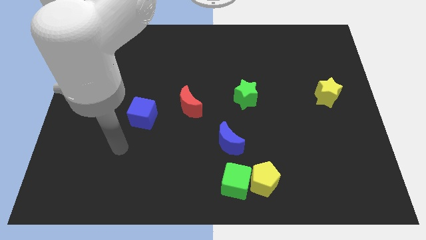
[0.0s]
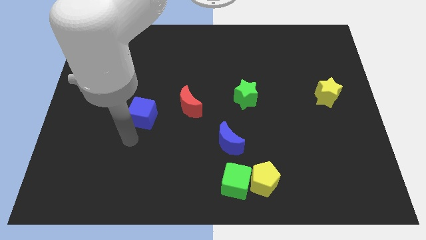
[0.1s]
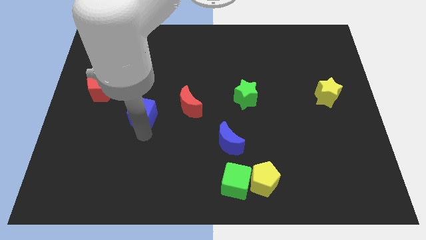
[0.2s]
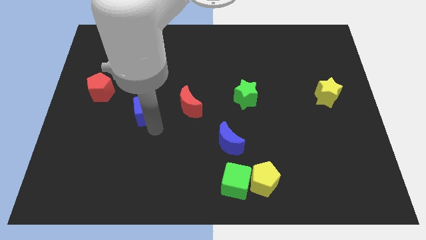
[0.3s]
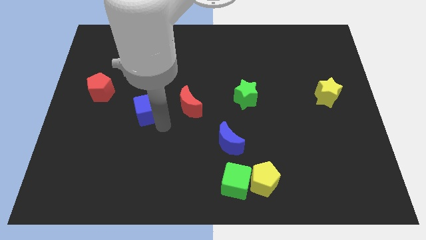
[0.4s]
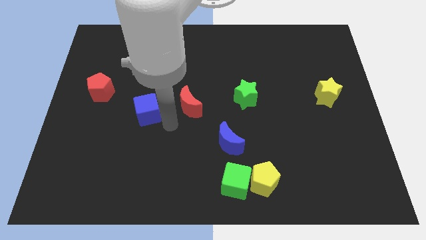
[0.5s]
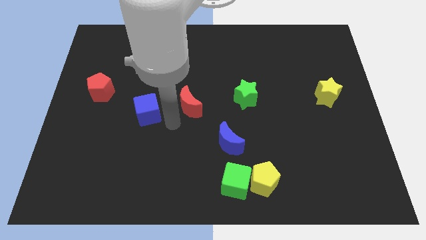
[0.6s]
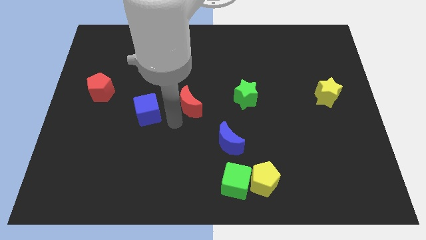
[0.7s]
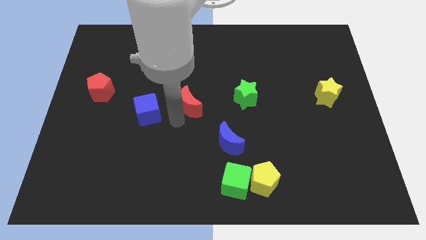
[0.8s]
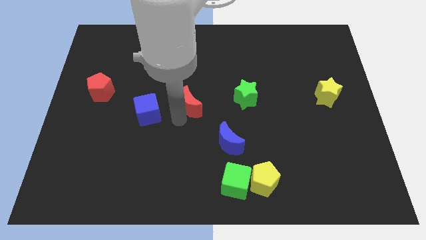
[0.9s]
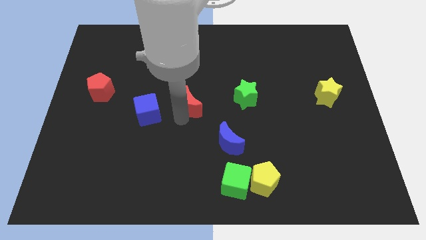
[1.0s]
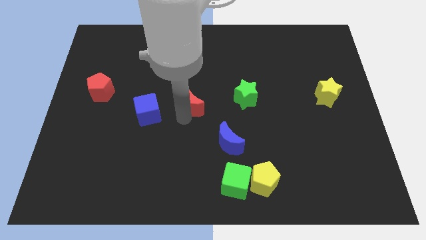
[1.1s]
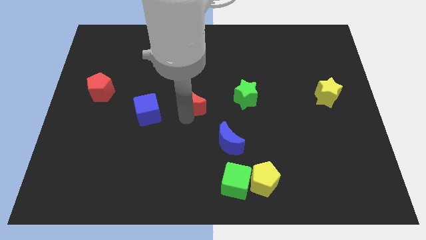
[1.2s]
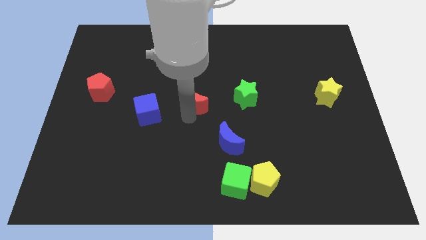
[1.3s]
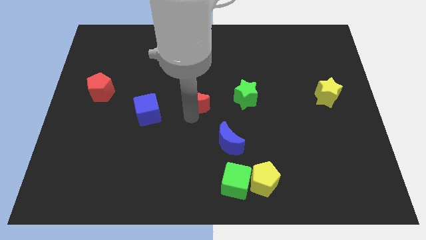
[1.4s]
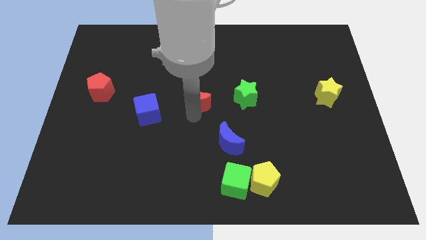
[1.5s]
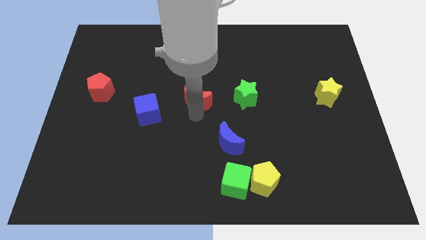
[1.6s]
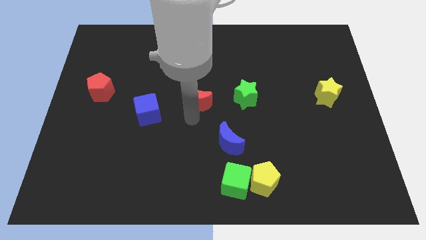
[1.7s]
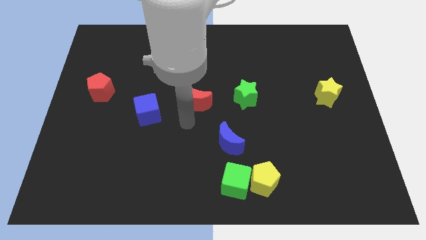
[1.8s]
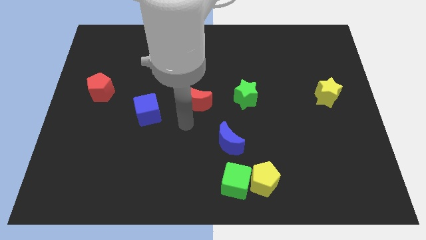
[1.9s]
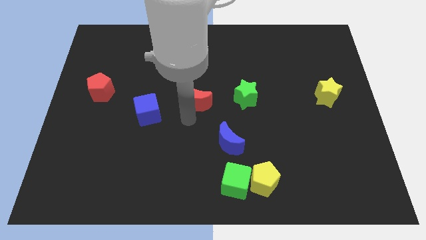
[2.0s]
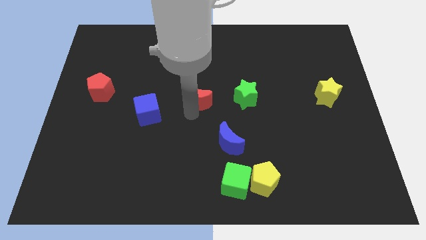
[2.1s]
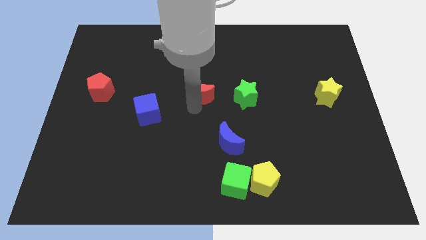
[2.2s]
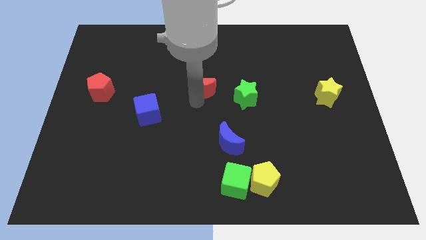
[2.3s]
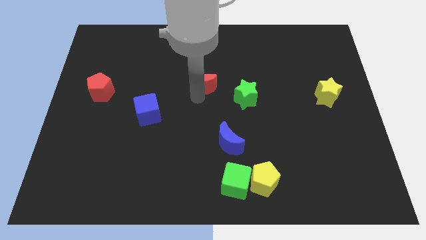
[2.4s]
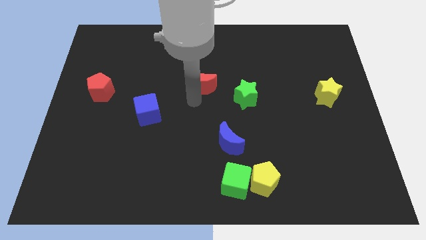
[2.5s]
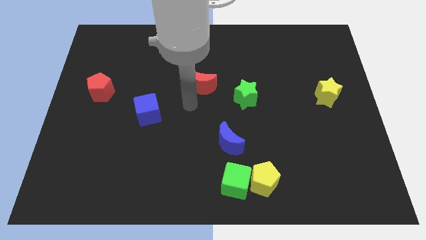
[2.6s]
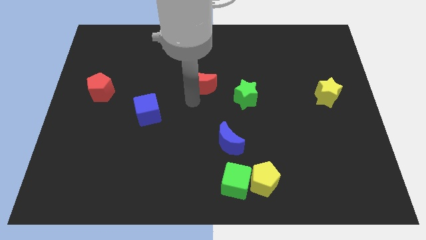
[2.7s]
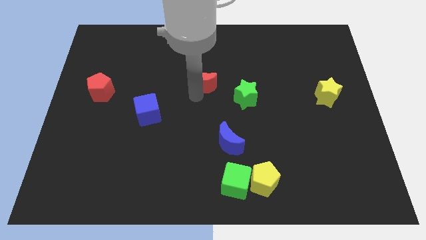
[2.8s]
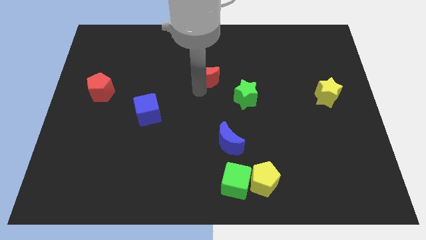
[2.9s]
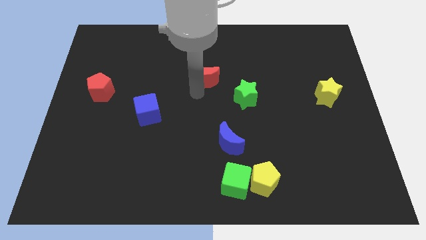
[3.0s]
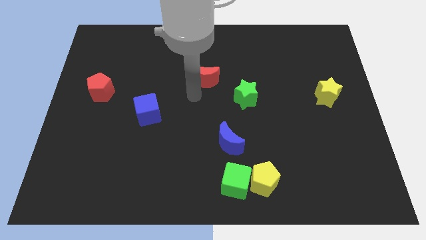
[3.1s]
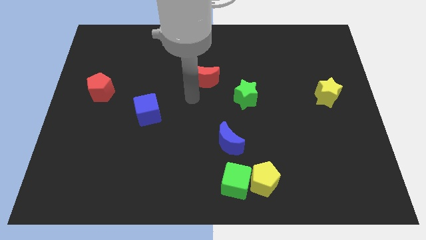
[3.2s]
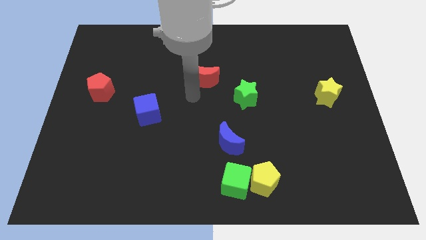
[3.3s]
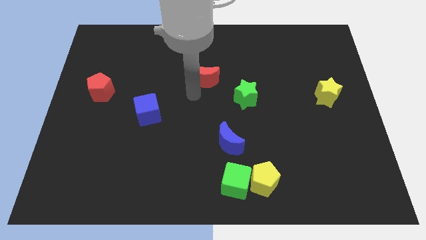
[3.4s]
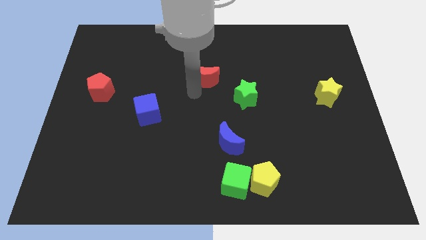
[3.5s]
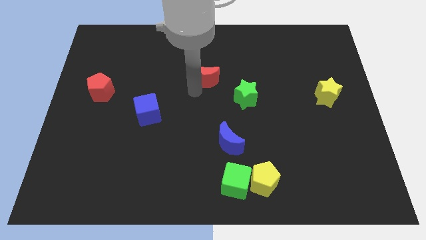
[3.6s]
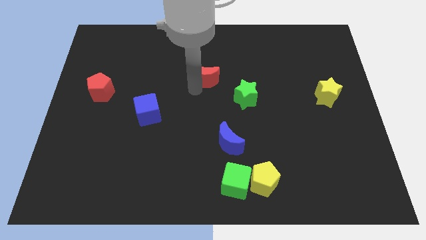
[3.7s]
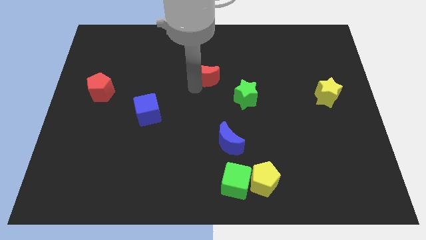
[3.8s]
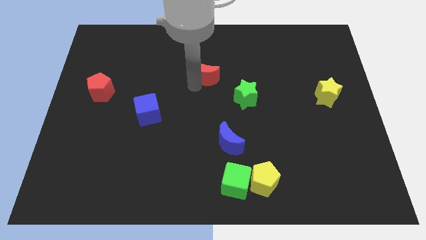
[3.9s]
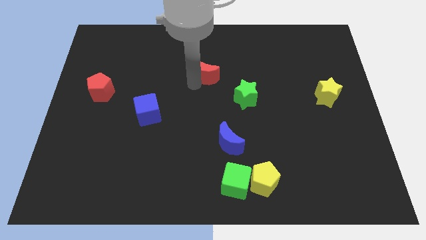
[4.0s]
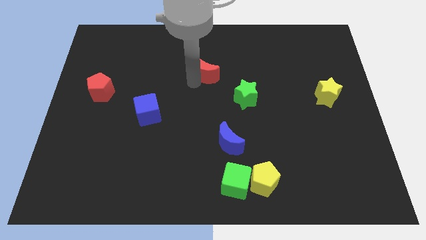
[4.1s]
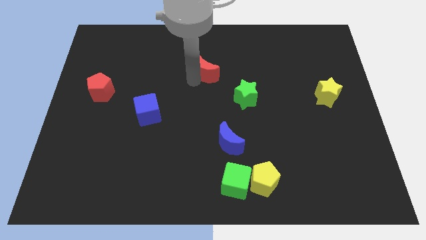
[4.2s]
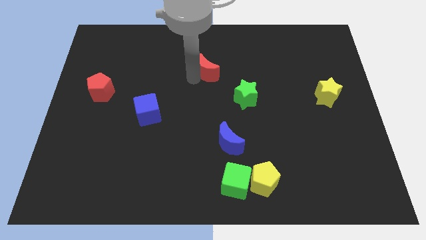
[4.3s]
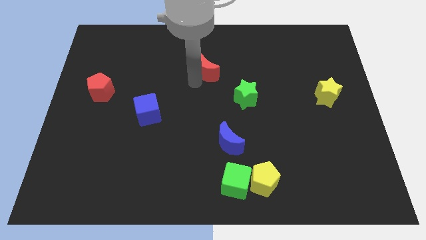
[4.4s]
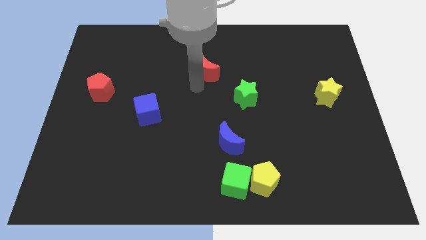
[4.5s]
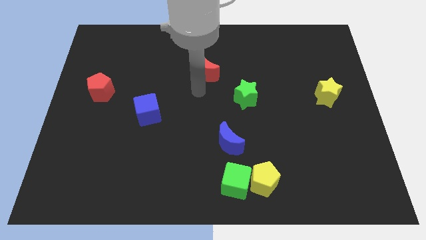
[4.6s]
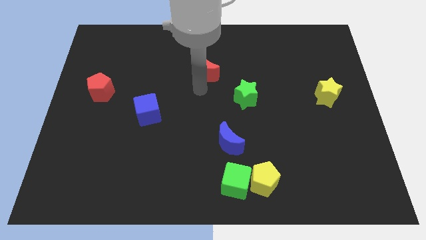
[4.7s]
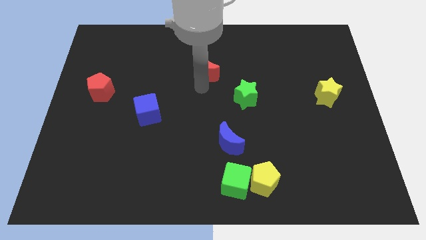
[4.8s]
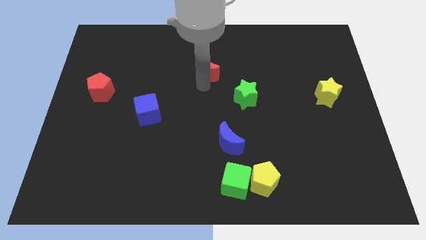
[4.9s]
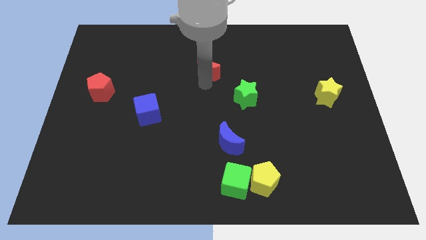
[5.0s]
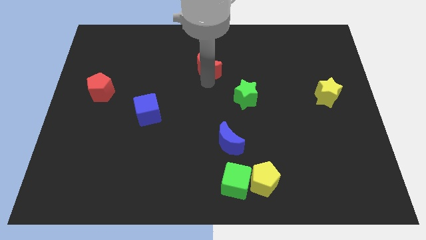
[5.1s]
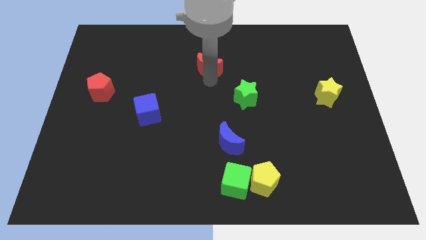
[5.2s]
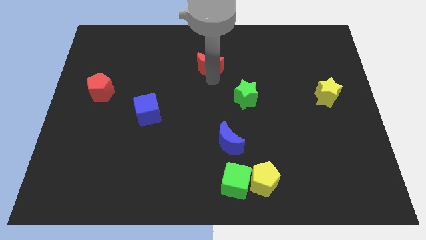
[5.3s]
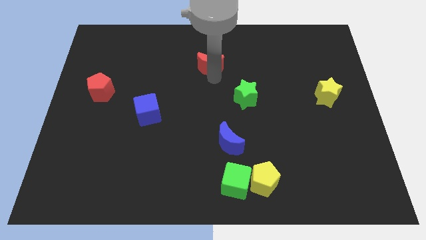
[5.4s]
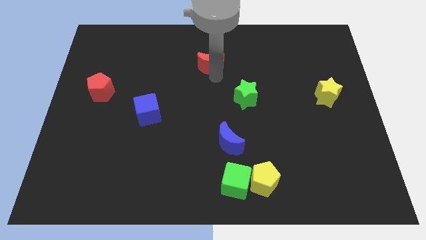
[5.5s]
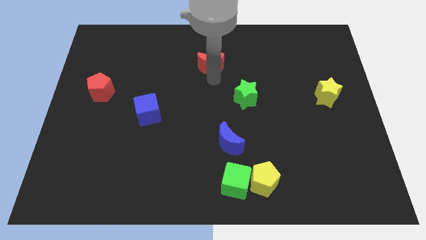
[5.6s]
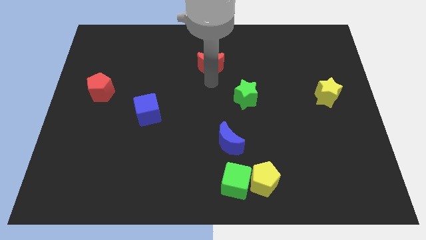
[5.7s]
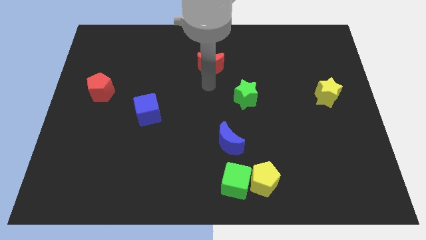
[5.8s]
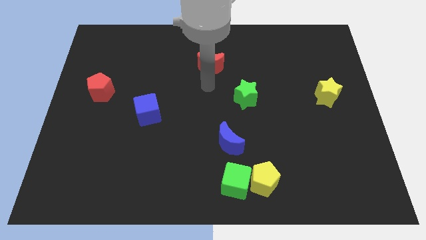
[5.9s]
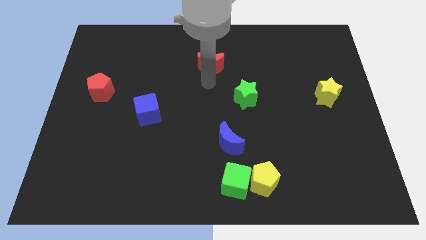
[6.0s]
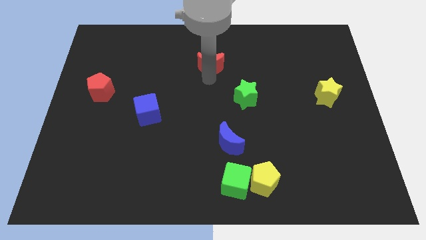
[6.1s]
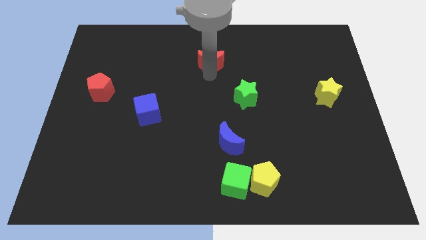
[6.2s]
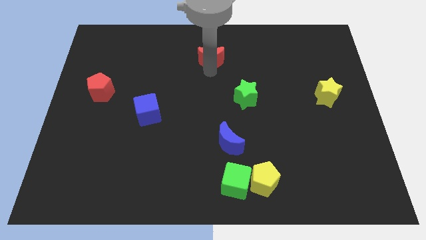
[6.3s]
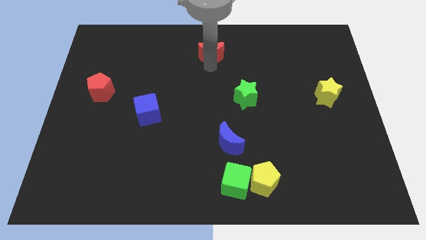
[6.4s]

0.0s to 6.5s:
slide the red moon to the towards your base

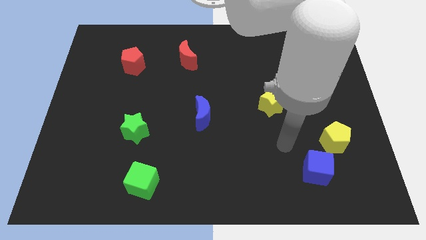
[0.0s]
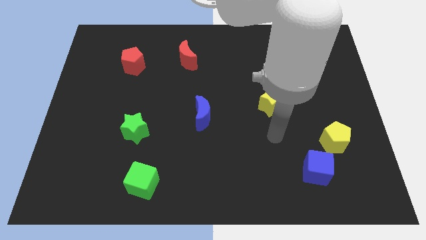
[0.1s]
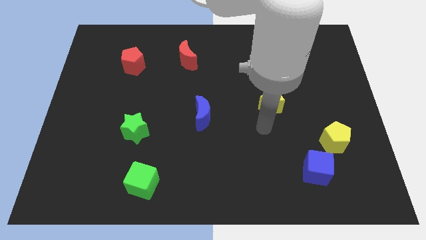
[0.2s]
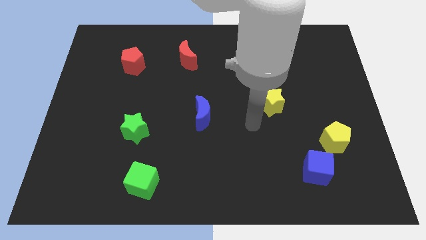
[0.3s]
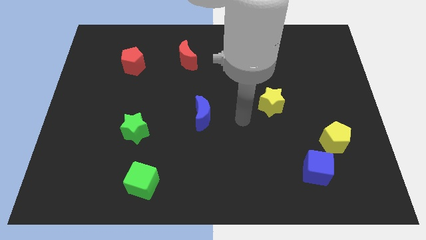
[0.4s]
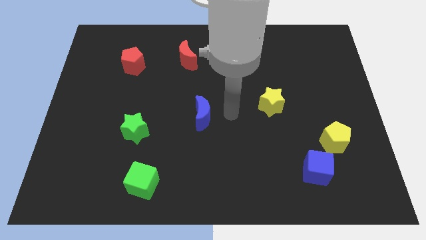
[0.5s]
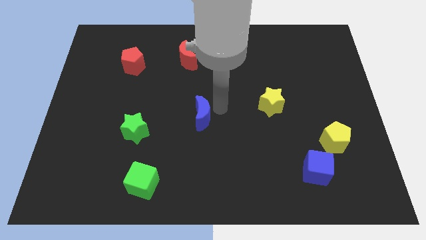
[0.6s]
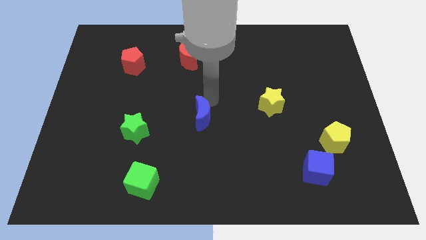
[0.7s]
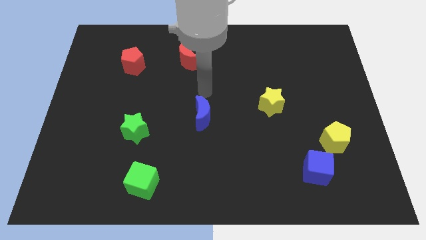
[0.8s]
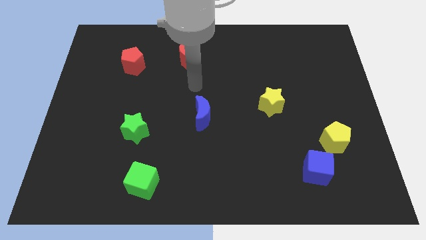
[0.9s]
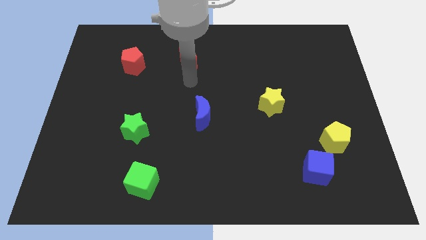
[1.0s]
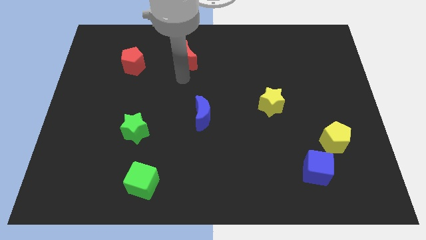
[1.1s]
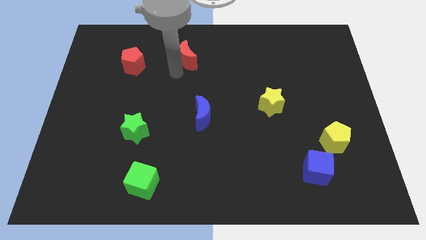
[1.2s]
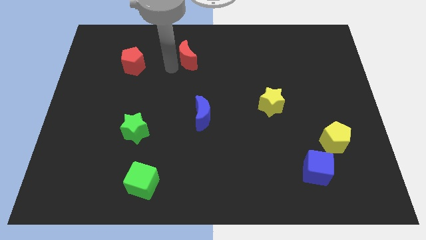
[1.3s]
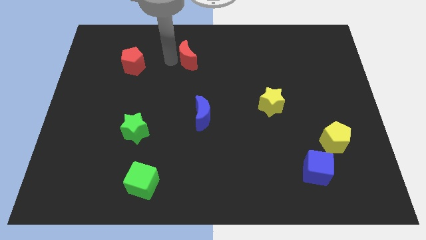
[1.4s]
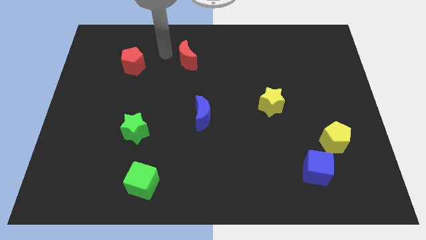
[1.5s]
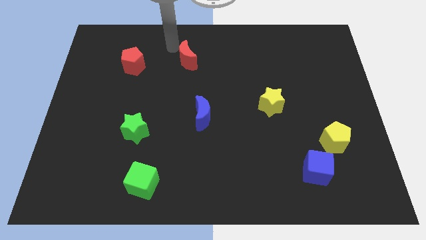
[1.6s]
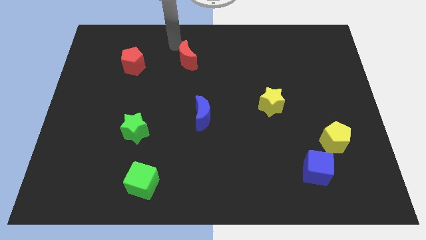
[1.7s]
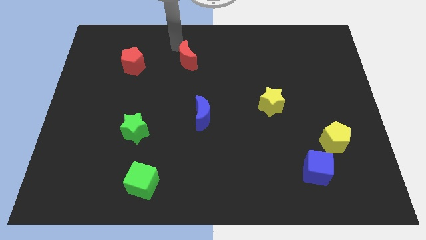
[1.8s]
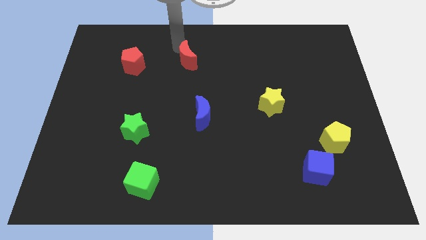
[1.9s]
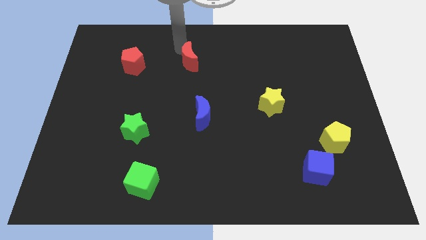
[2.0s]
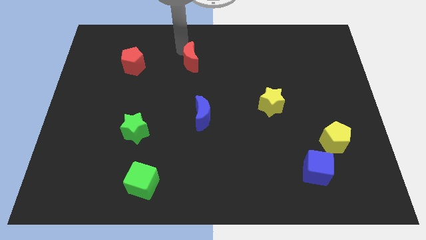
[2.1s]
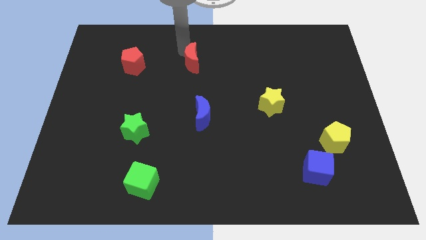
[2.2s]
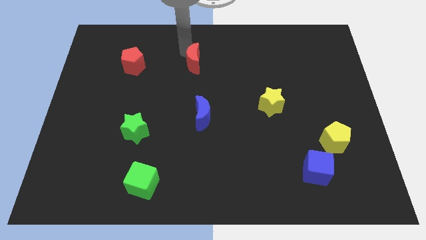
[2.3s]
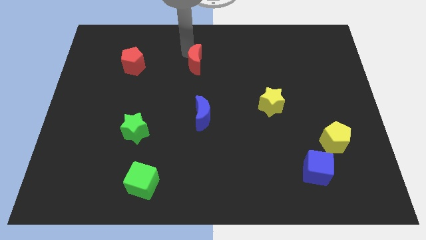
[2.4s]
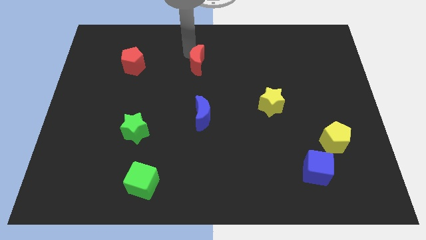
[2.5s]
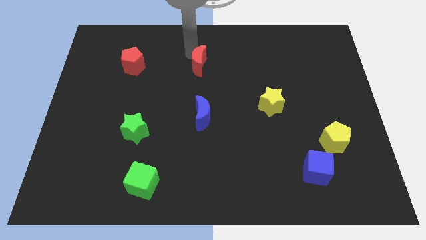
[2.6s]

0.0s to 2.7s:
put the red moon to the middle
